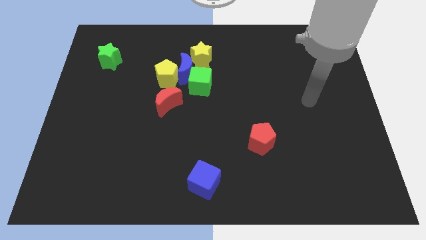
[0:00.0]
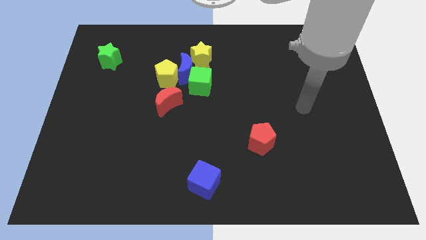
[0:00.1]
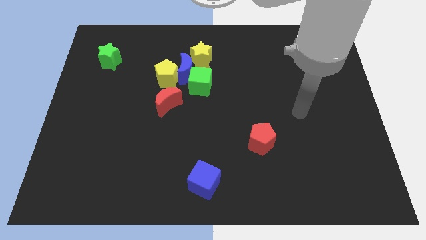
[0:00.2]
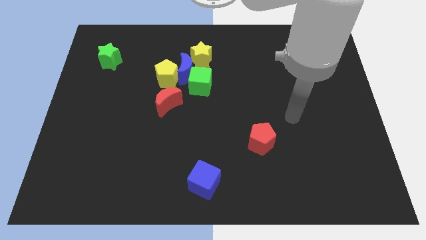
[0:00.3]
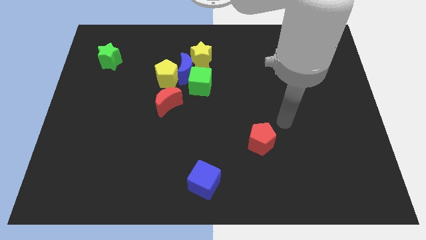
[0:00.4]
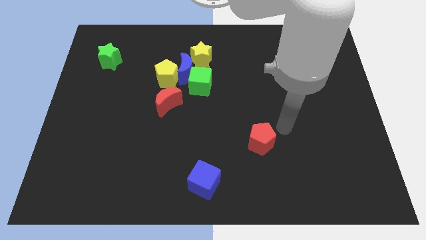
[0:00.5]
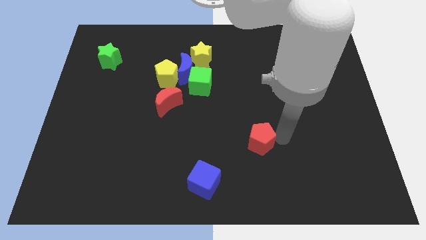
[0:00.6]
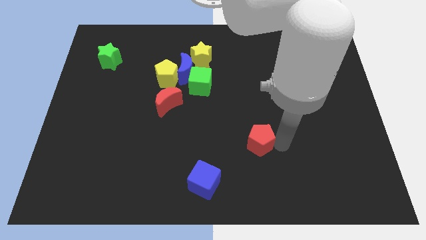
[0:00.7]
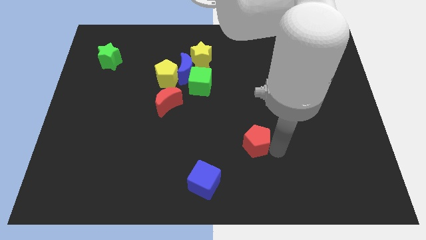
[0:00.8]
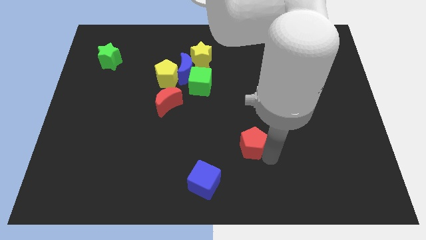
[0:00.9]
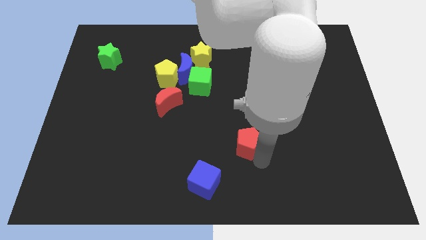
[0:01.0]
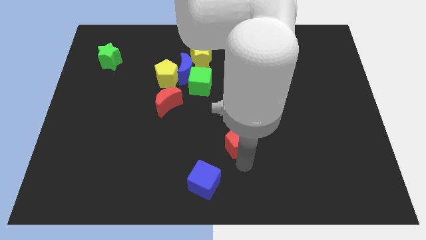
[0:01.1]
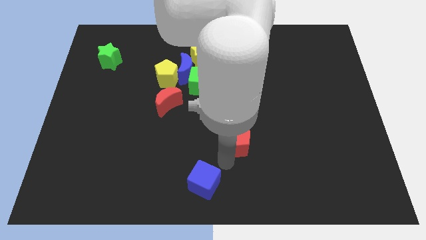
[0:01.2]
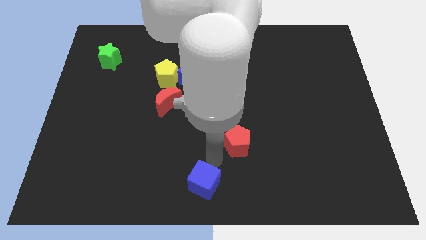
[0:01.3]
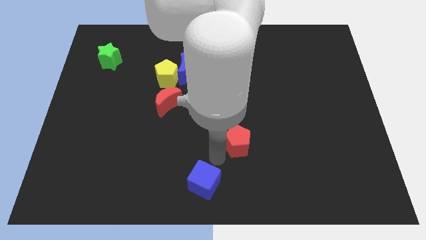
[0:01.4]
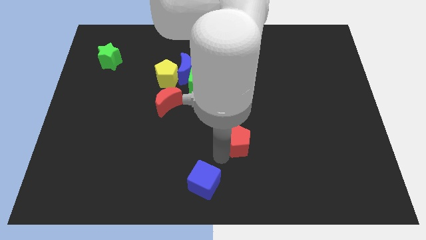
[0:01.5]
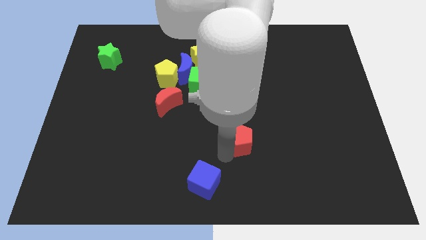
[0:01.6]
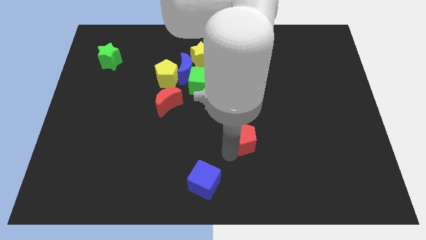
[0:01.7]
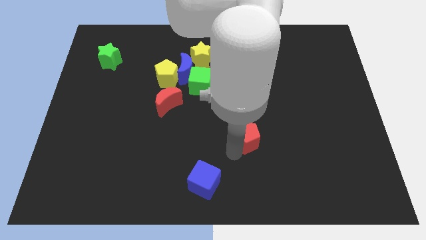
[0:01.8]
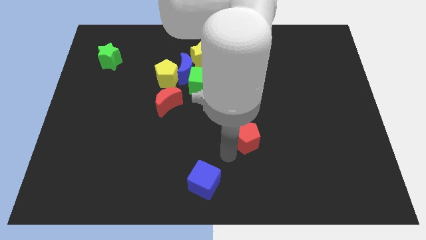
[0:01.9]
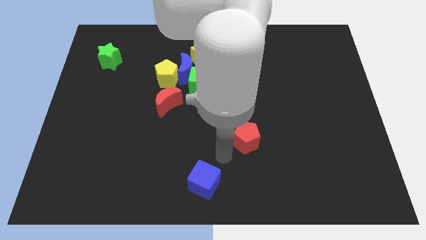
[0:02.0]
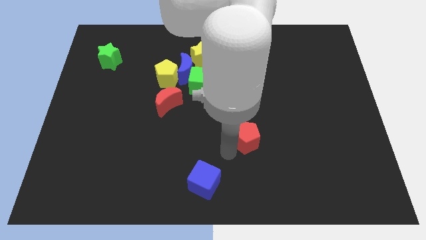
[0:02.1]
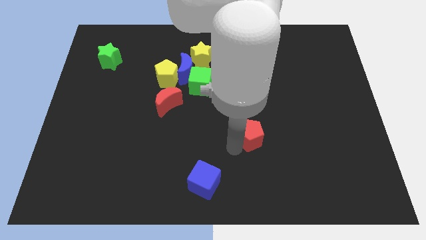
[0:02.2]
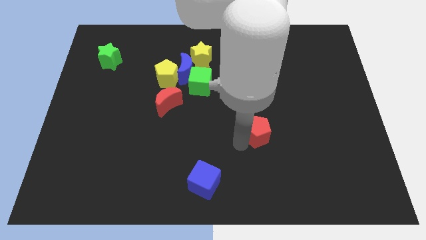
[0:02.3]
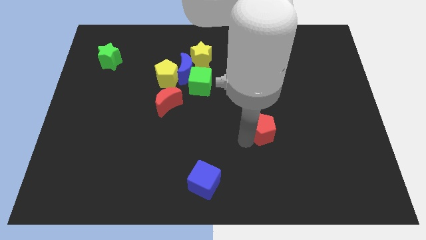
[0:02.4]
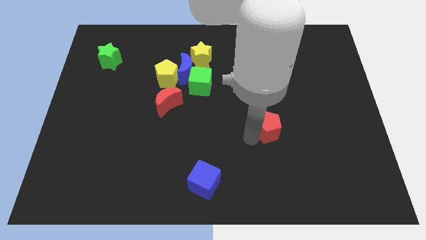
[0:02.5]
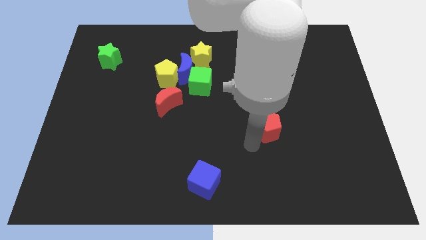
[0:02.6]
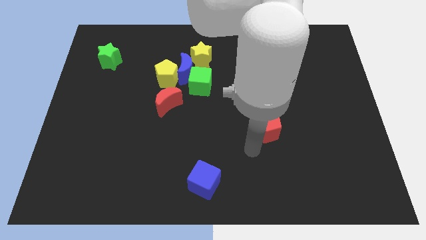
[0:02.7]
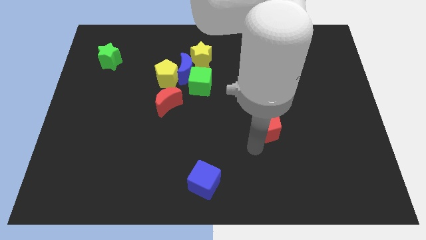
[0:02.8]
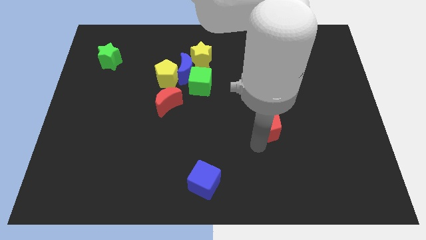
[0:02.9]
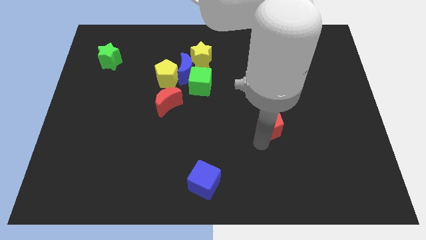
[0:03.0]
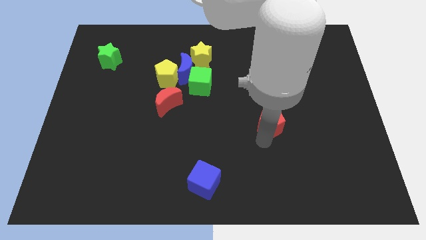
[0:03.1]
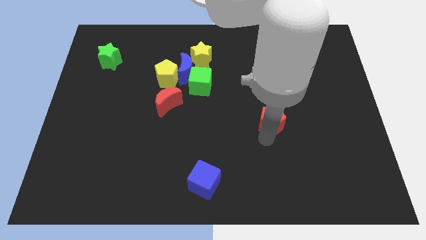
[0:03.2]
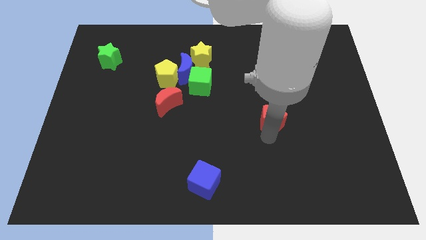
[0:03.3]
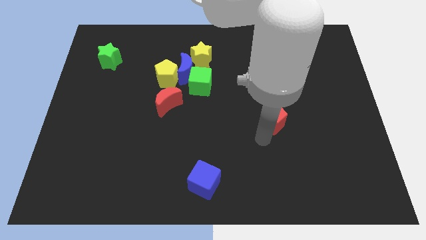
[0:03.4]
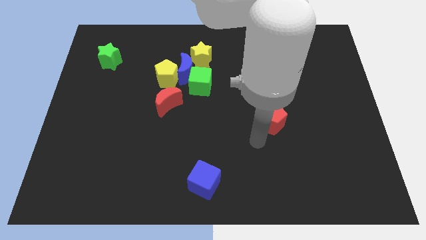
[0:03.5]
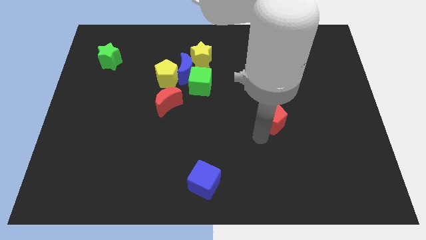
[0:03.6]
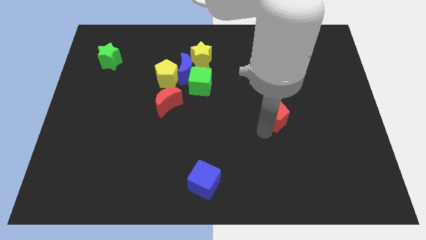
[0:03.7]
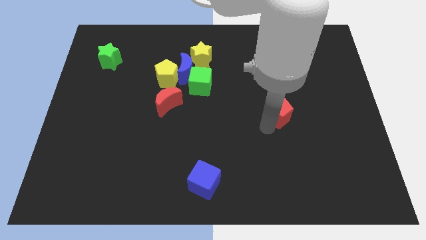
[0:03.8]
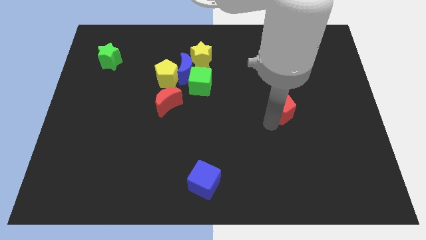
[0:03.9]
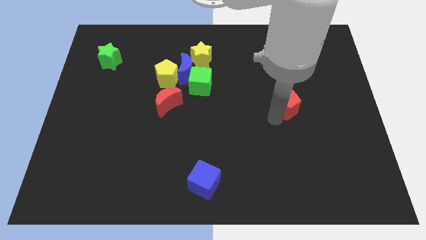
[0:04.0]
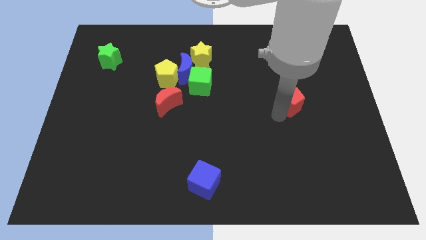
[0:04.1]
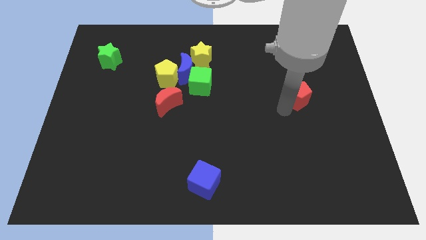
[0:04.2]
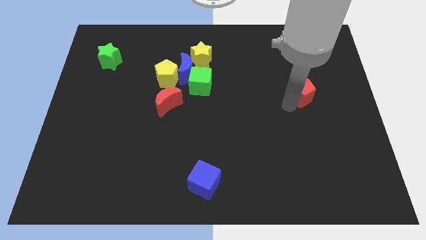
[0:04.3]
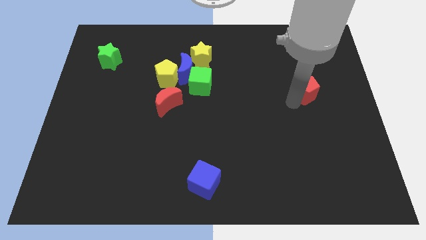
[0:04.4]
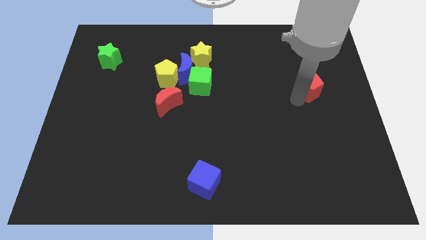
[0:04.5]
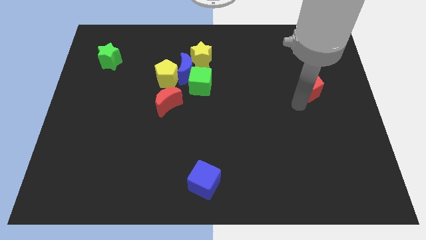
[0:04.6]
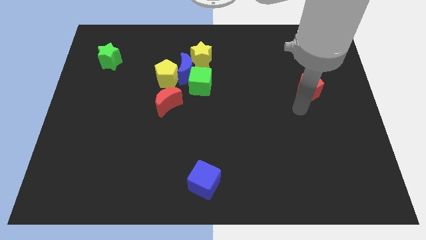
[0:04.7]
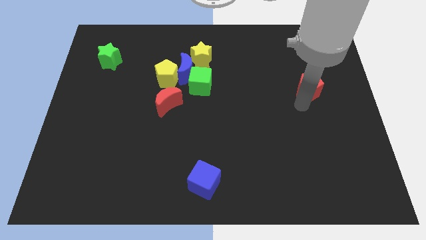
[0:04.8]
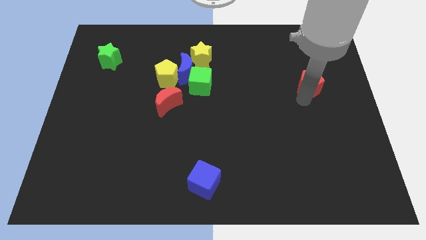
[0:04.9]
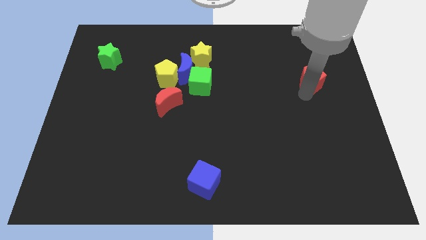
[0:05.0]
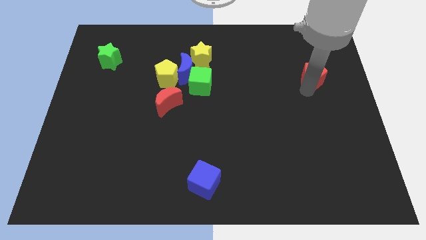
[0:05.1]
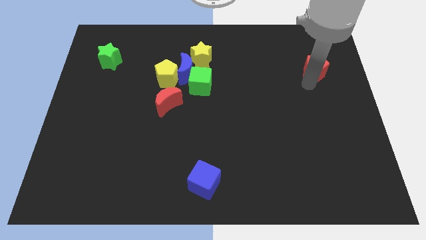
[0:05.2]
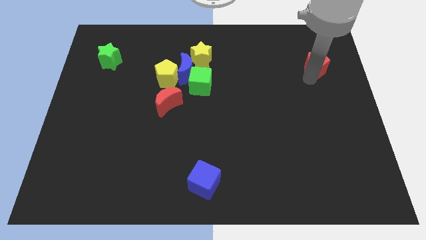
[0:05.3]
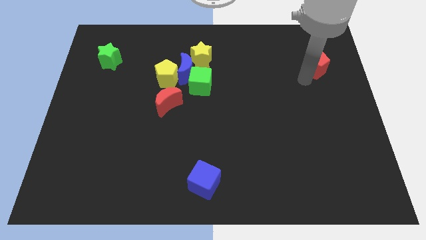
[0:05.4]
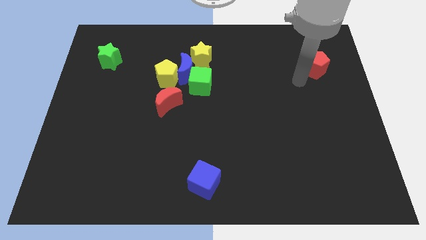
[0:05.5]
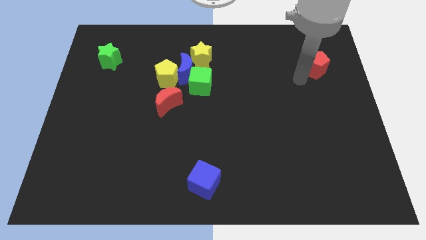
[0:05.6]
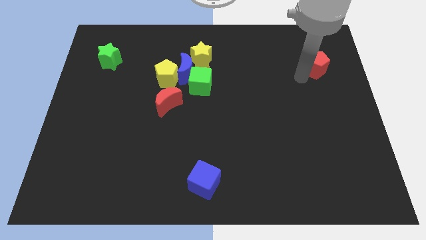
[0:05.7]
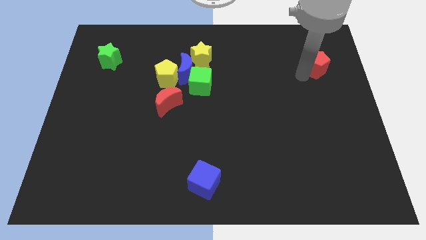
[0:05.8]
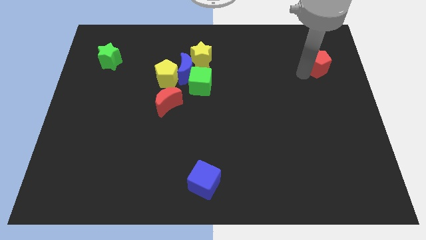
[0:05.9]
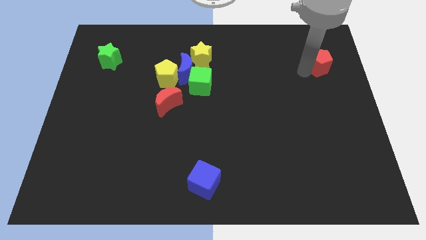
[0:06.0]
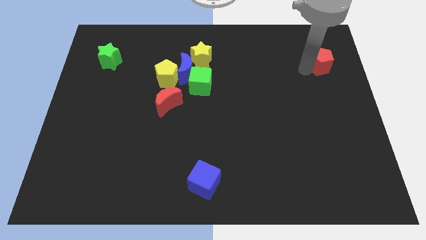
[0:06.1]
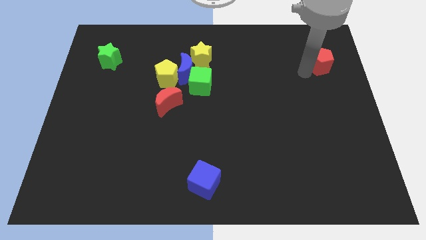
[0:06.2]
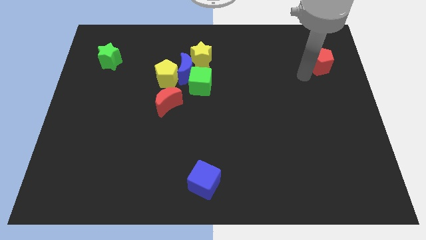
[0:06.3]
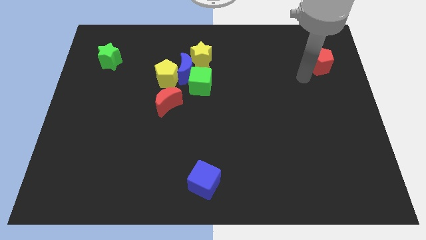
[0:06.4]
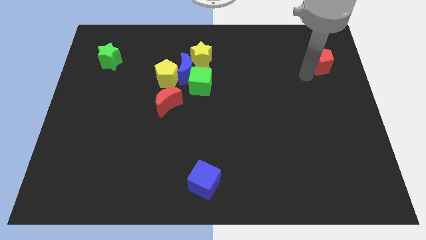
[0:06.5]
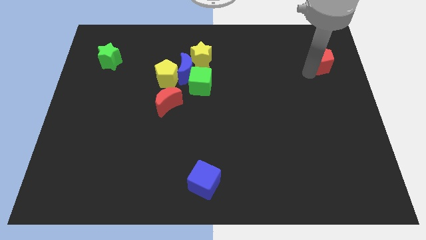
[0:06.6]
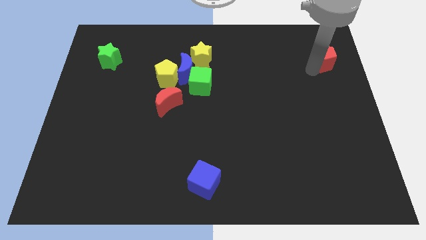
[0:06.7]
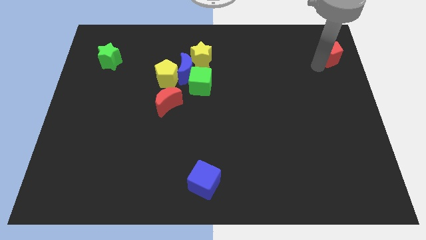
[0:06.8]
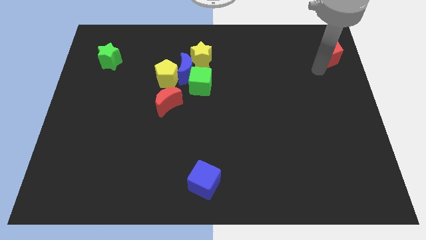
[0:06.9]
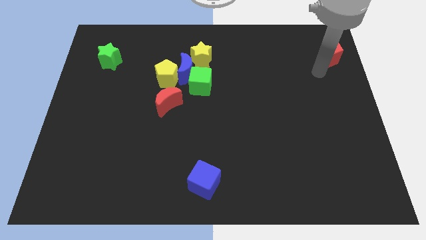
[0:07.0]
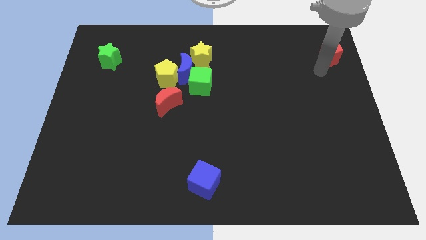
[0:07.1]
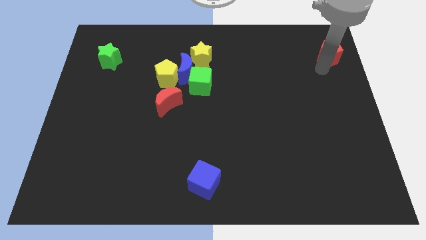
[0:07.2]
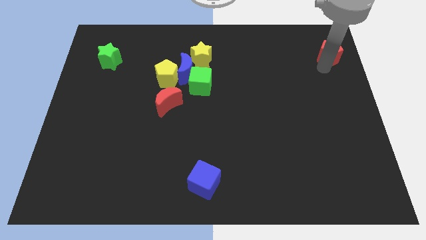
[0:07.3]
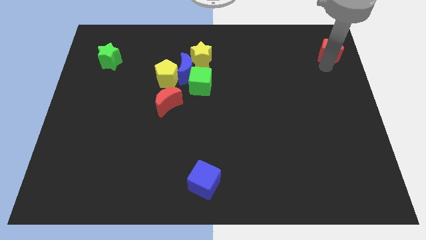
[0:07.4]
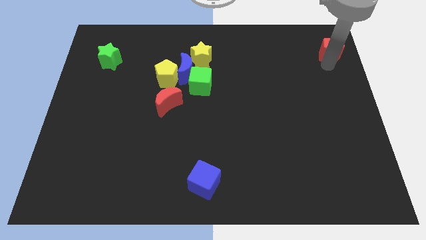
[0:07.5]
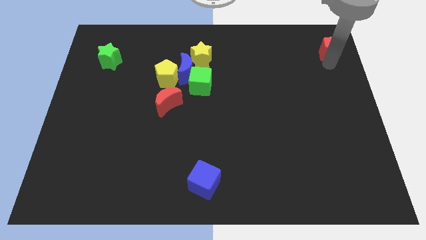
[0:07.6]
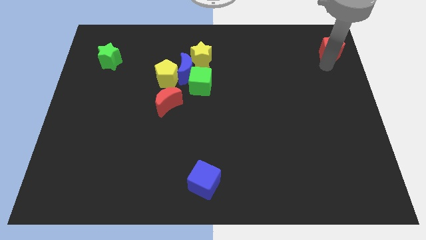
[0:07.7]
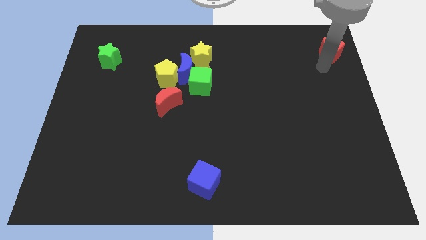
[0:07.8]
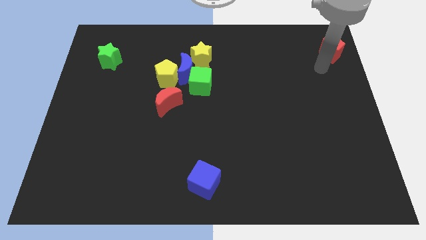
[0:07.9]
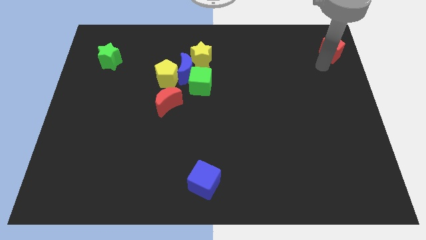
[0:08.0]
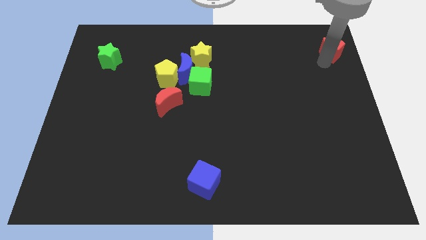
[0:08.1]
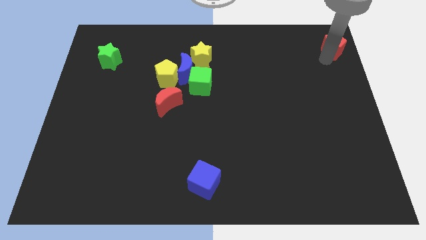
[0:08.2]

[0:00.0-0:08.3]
push the red pentagon to the top right of the board
